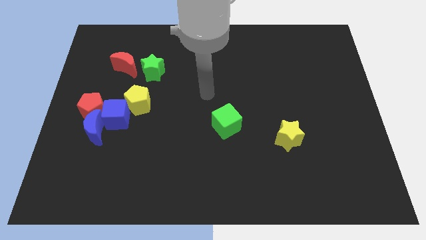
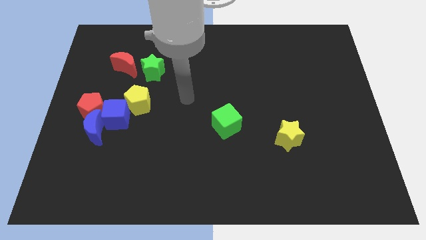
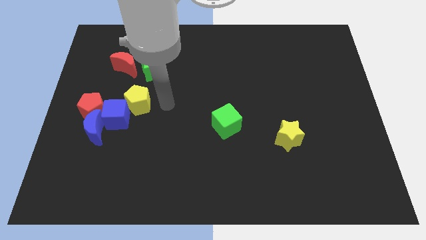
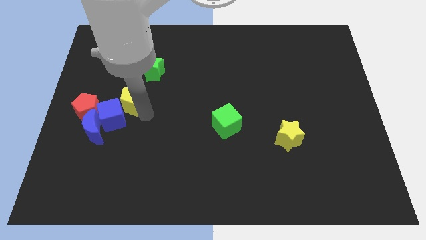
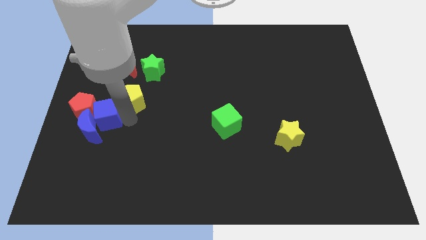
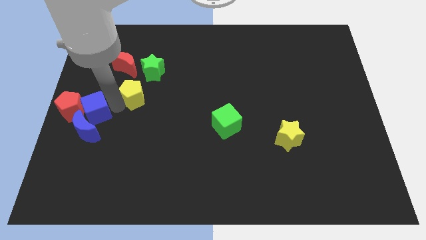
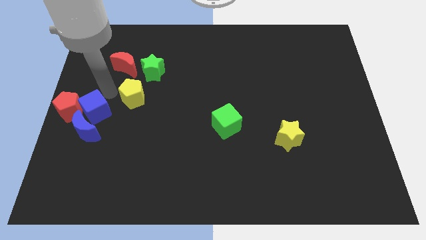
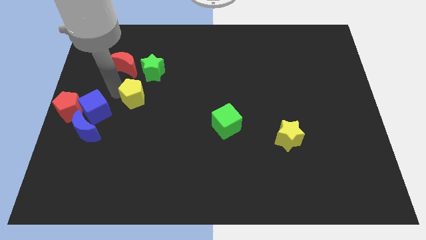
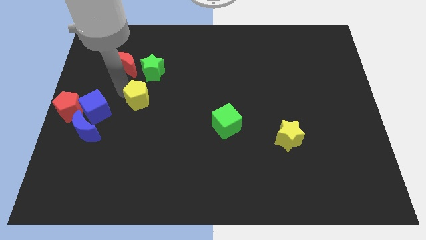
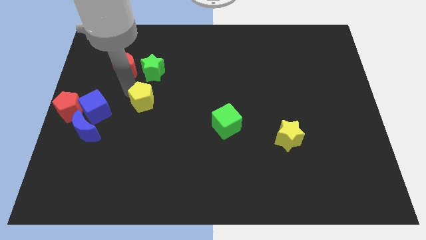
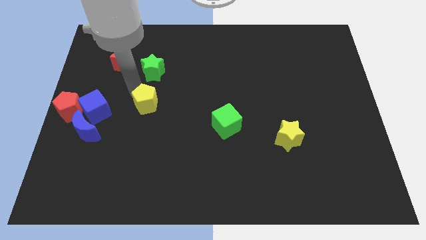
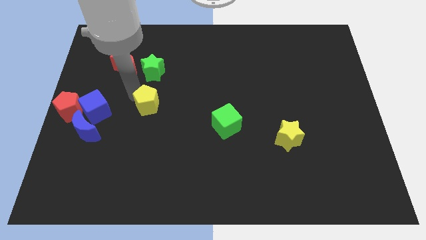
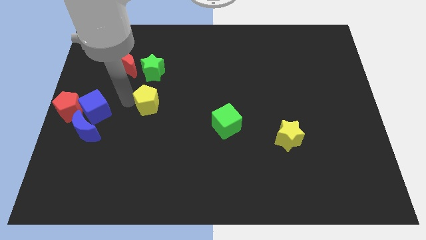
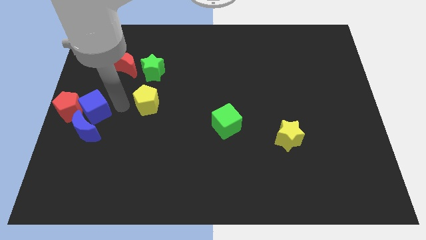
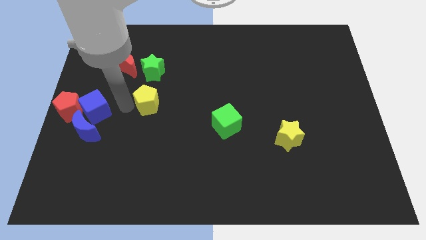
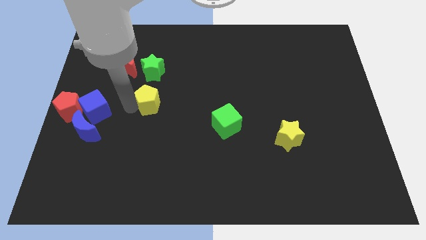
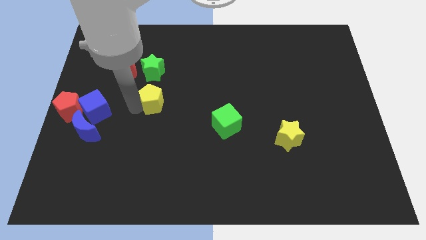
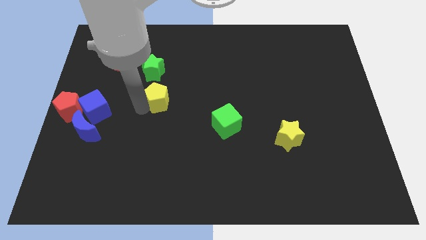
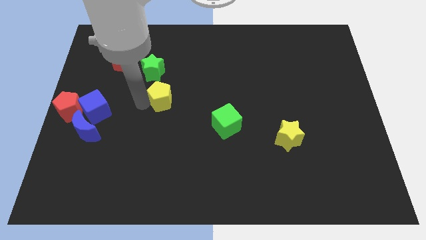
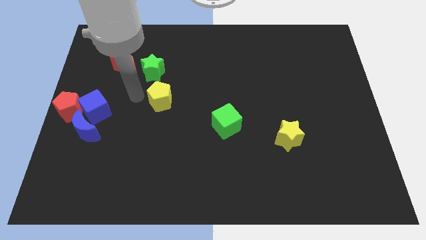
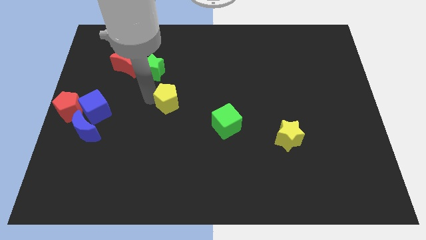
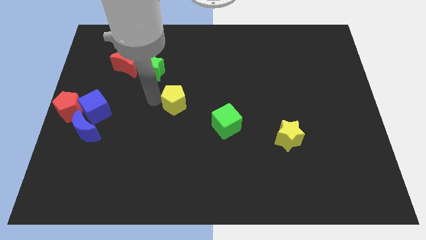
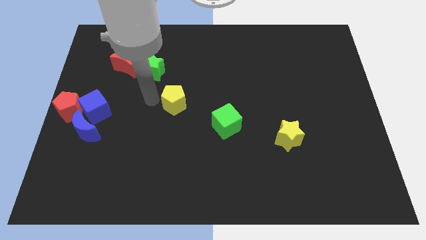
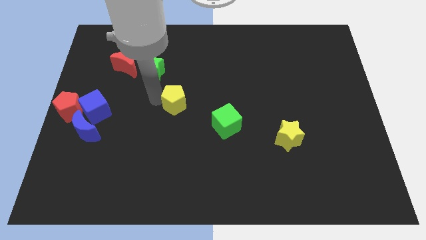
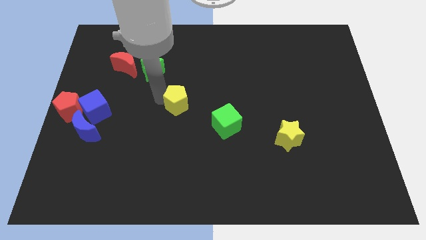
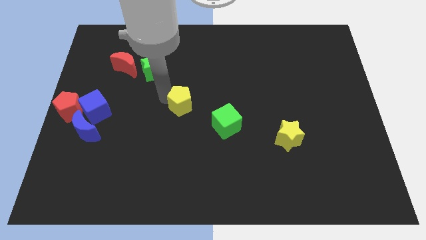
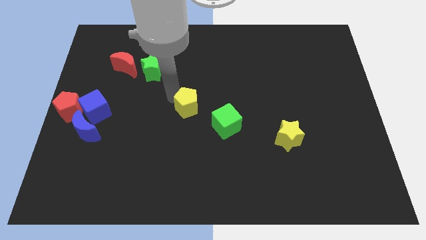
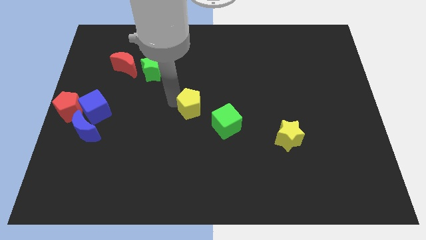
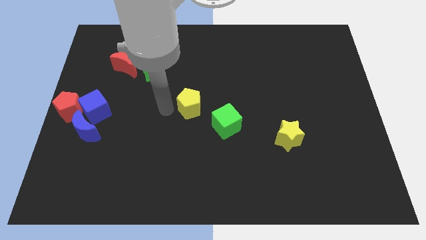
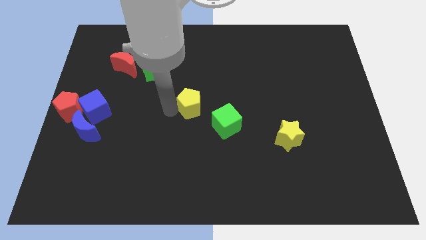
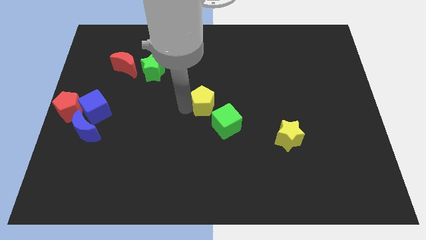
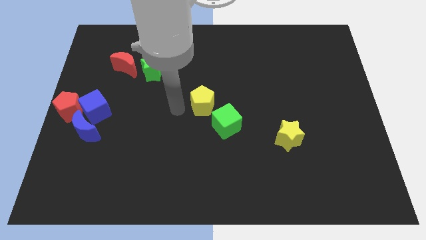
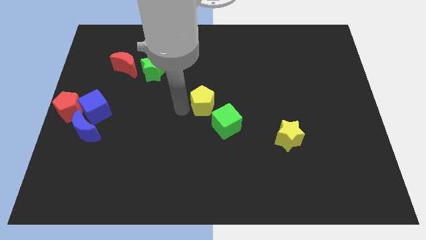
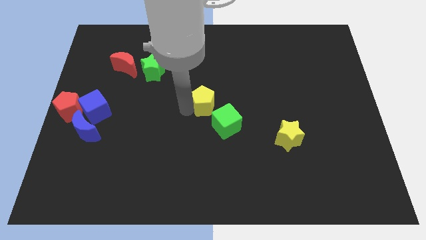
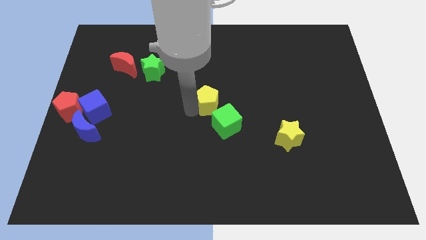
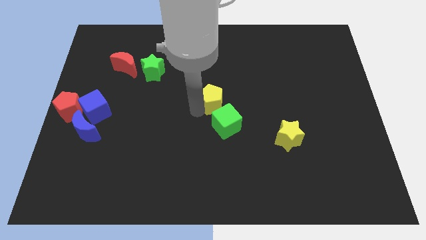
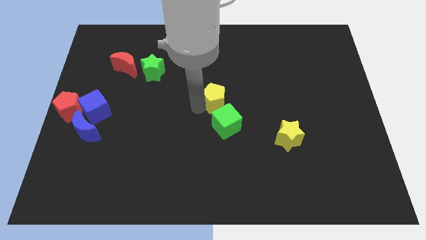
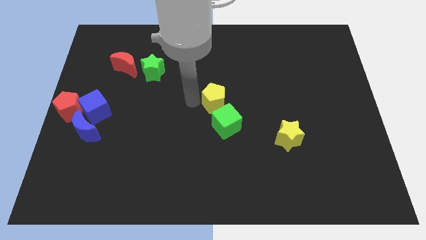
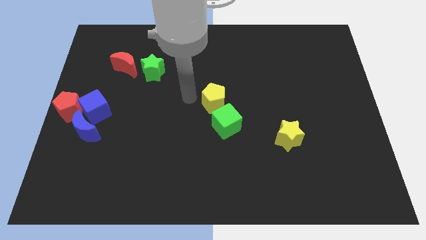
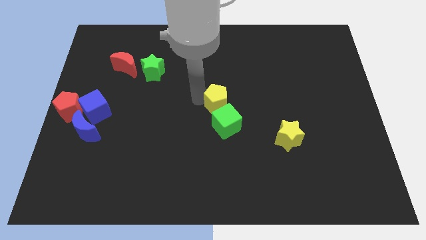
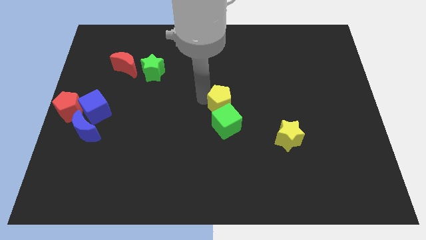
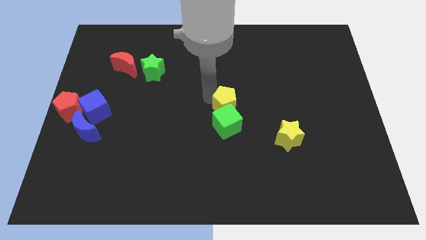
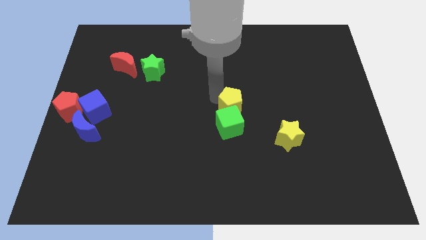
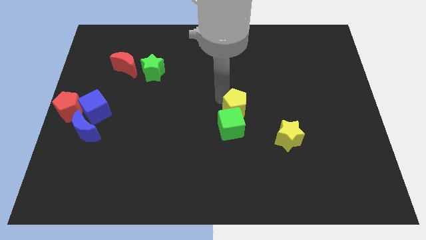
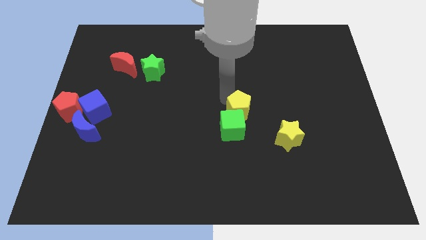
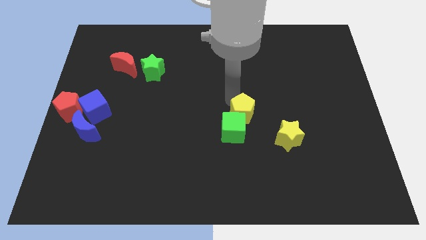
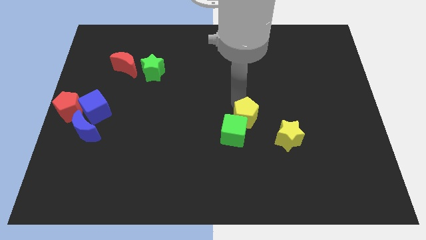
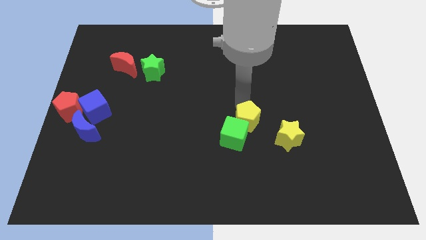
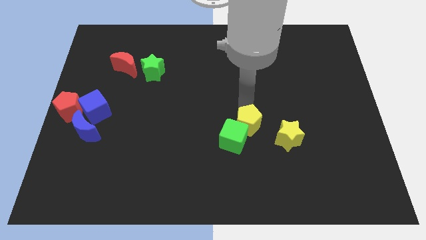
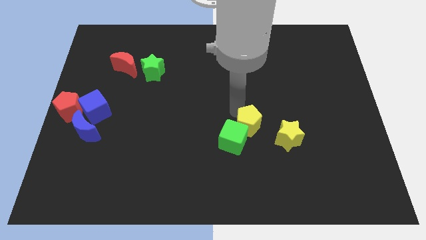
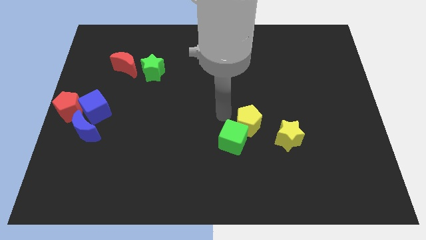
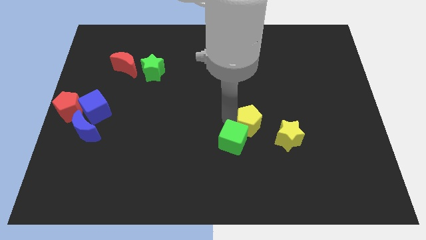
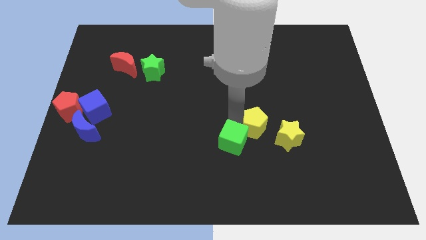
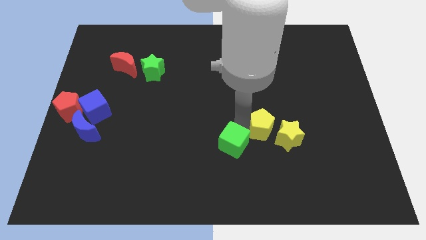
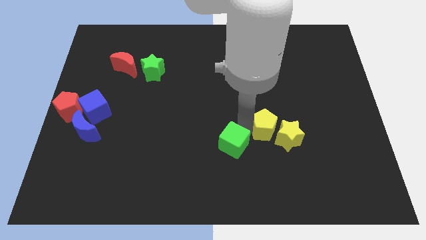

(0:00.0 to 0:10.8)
push the yellow pentagon to the yellow star

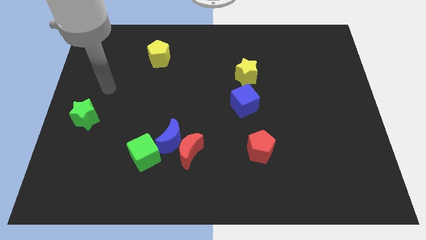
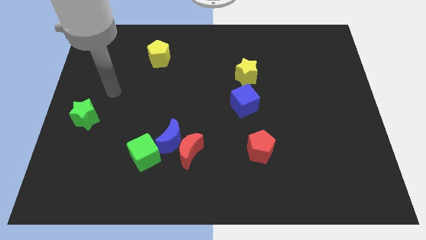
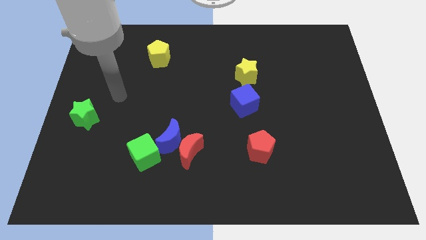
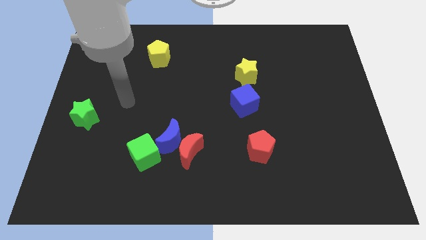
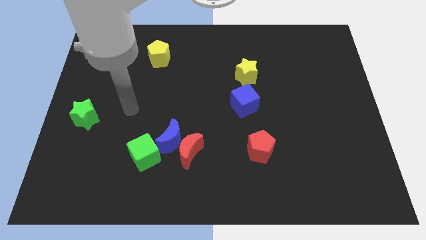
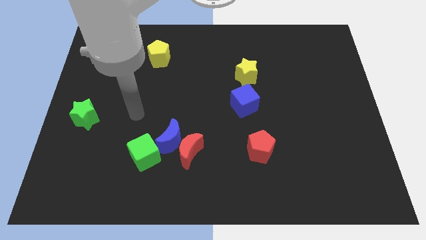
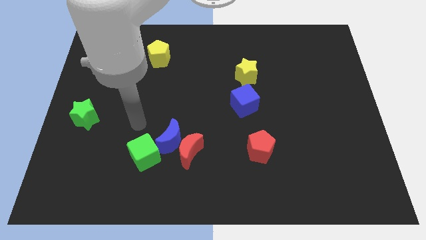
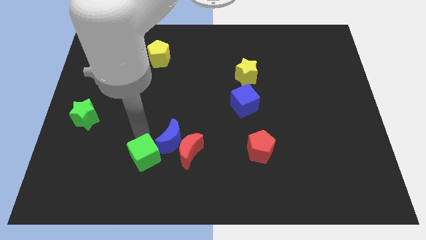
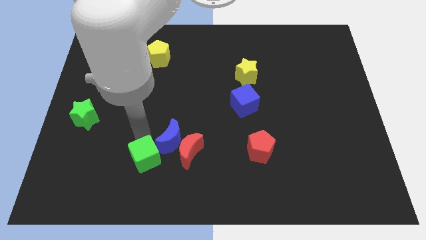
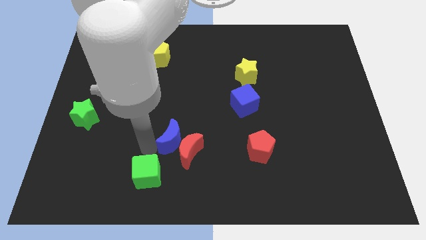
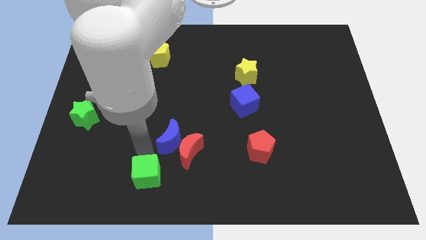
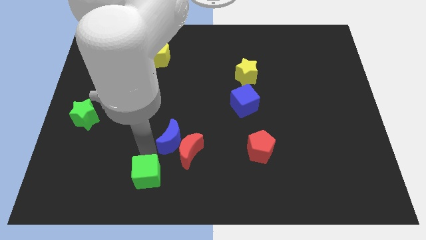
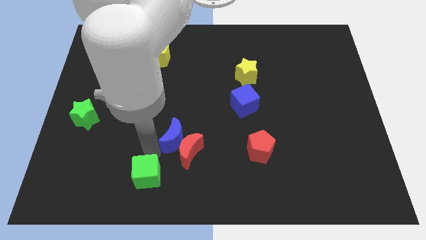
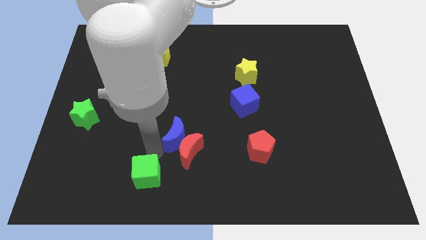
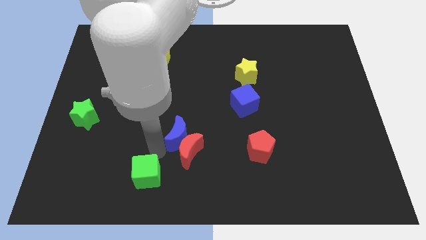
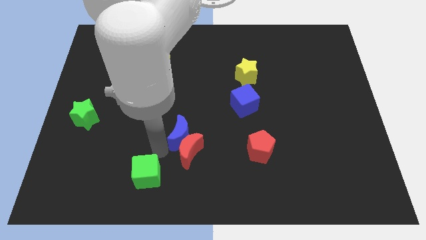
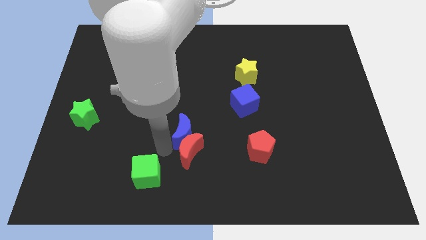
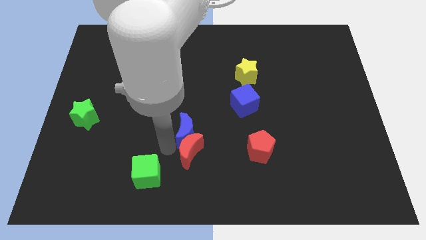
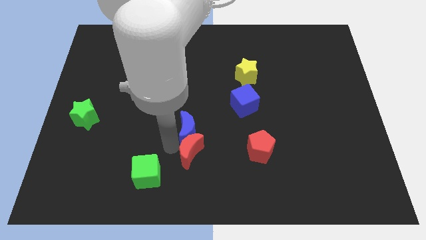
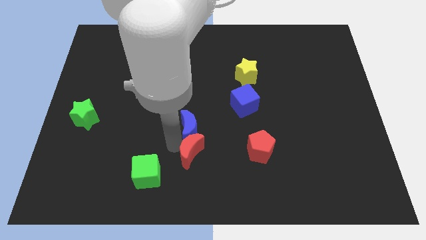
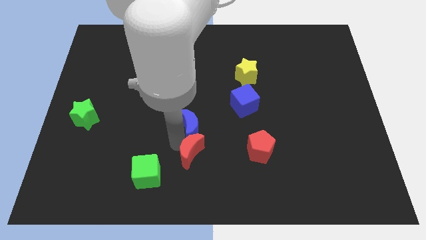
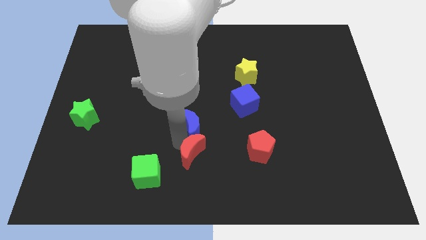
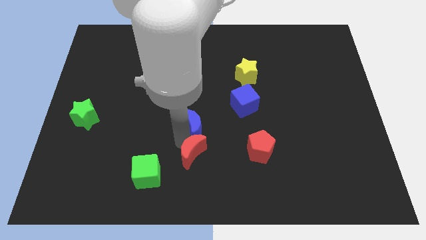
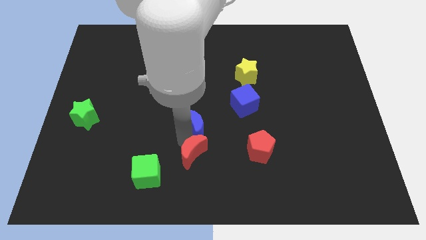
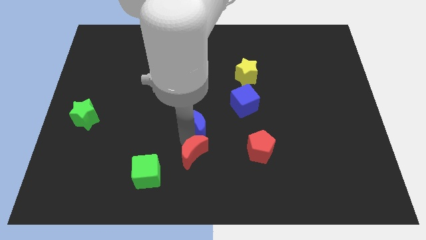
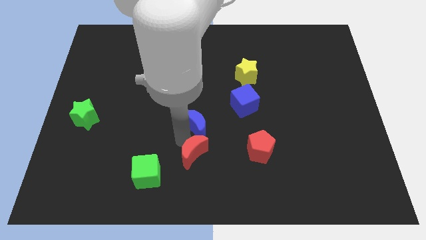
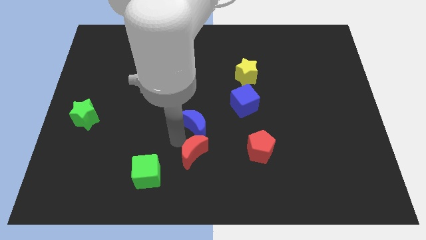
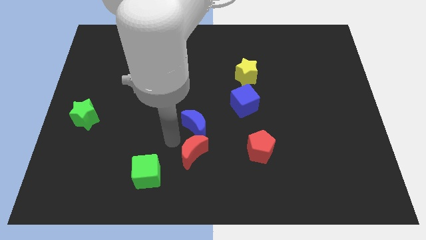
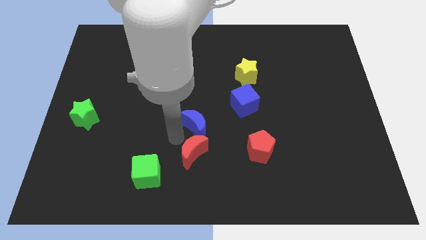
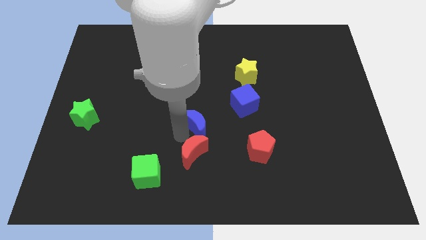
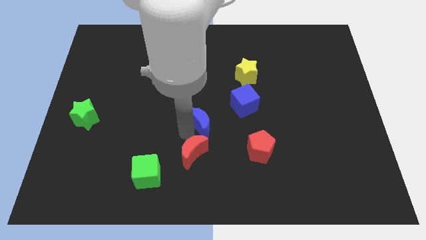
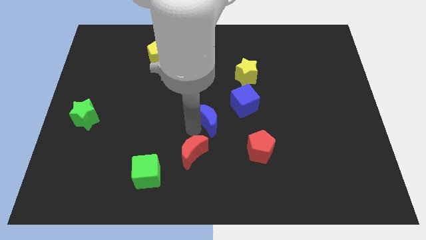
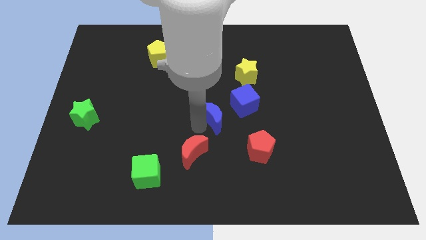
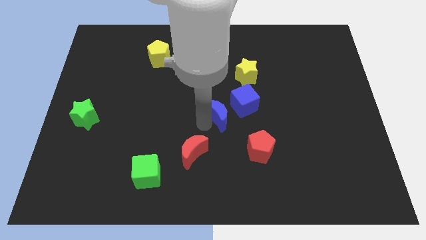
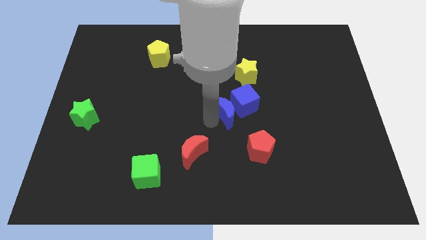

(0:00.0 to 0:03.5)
slide the blue moon next to the blue cube
